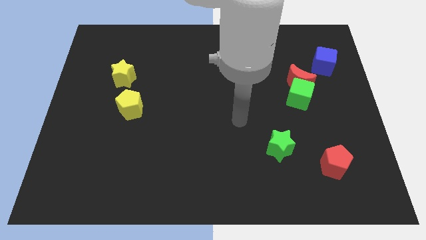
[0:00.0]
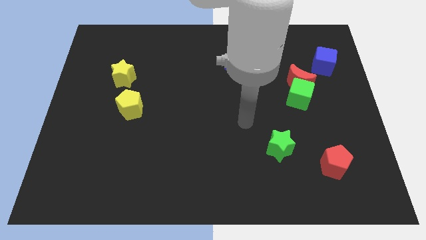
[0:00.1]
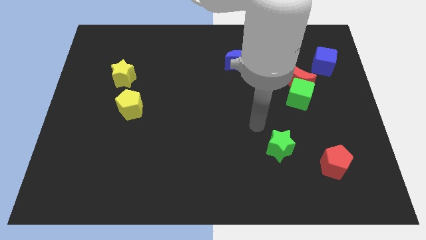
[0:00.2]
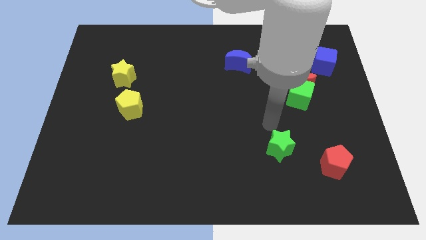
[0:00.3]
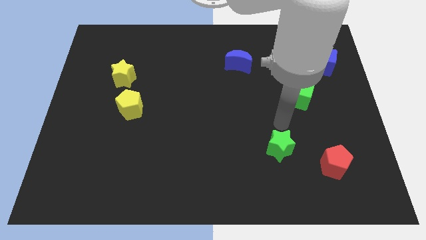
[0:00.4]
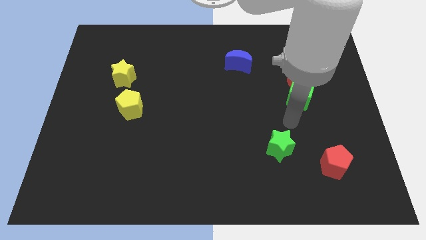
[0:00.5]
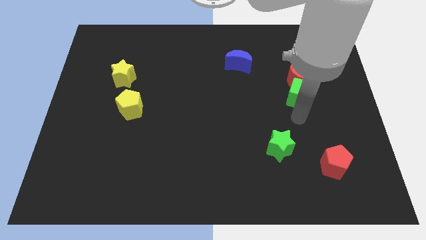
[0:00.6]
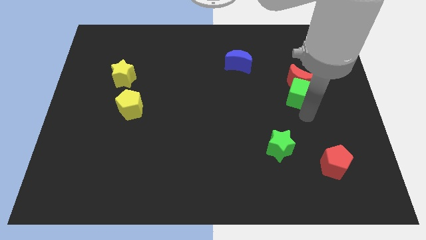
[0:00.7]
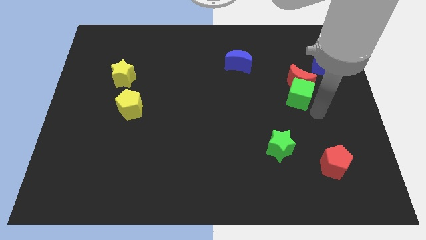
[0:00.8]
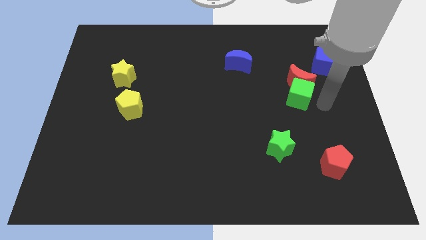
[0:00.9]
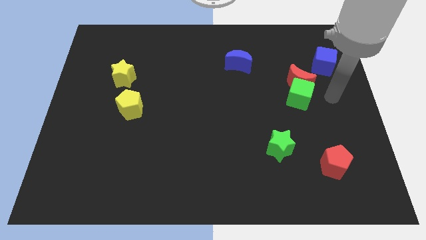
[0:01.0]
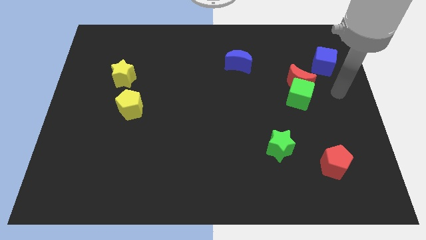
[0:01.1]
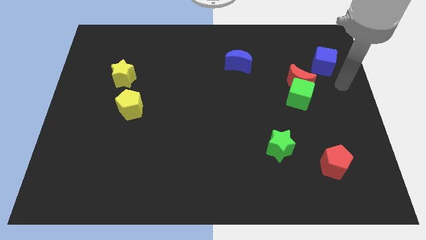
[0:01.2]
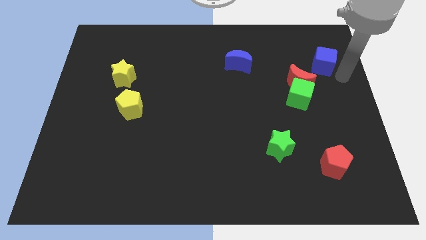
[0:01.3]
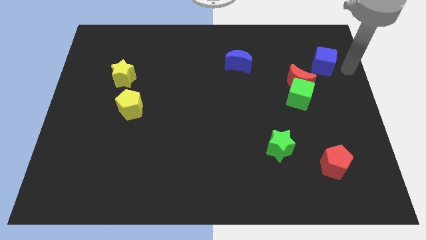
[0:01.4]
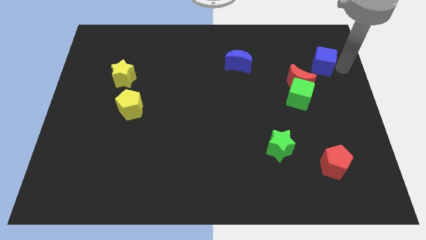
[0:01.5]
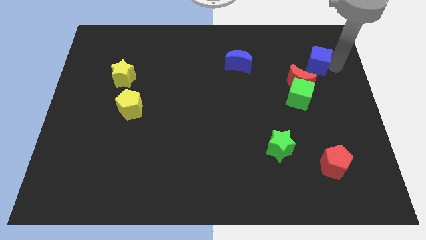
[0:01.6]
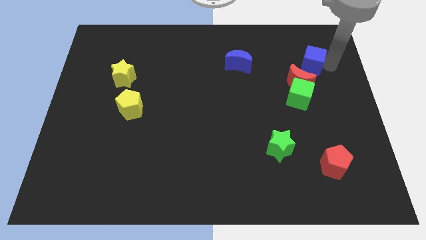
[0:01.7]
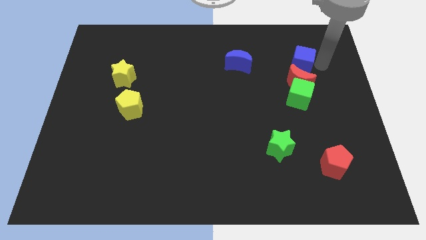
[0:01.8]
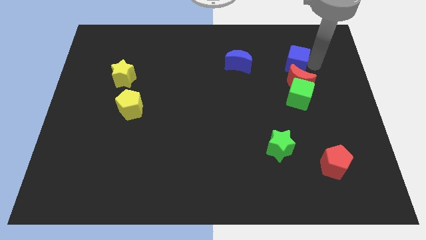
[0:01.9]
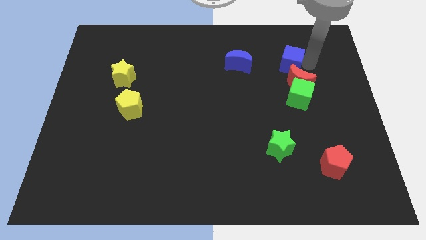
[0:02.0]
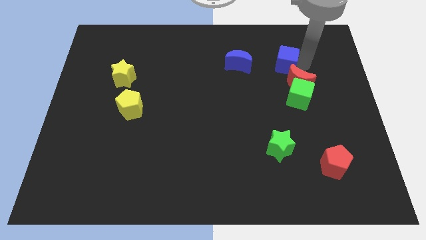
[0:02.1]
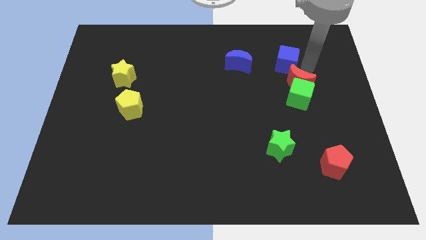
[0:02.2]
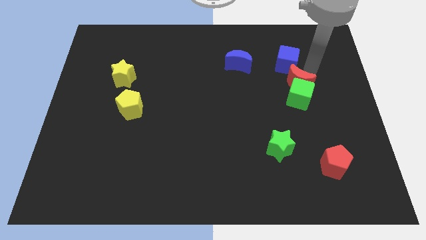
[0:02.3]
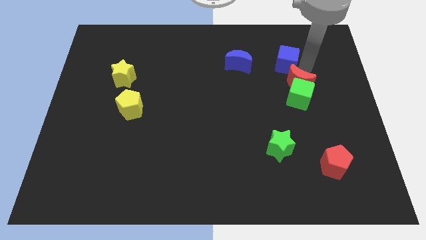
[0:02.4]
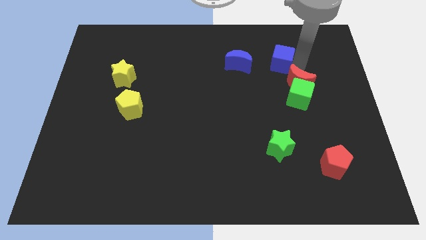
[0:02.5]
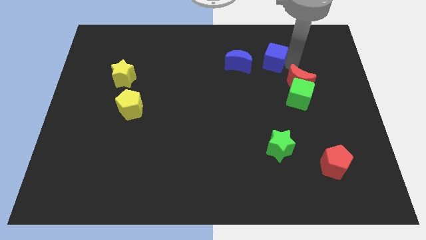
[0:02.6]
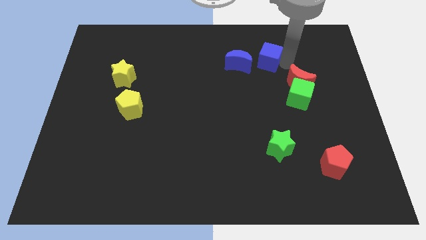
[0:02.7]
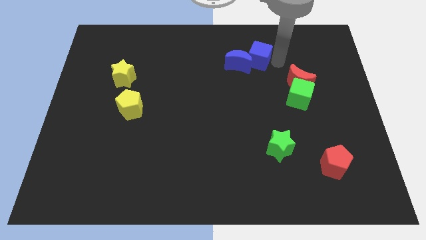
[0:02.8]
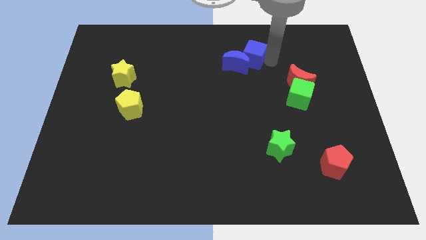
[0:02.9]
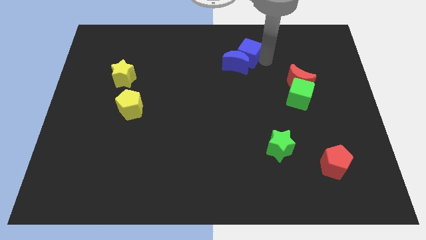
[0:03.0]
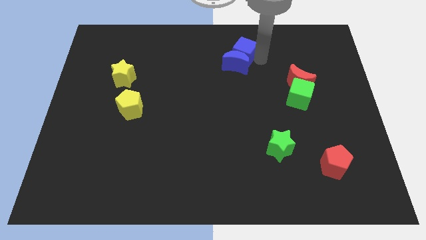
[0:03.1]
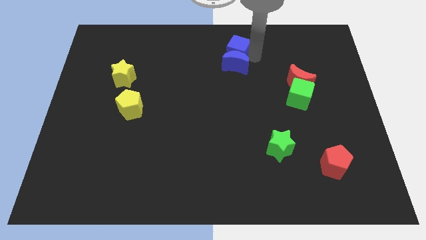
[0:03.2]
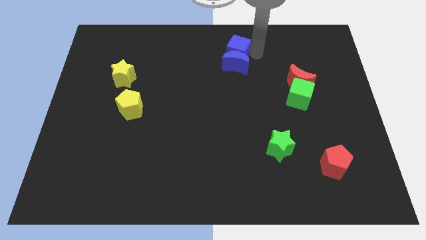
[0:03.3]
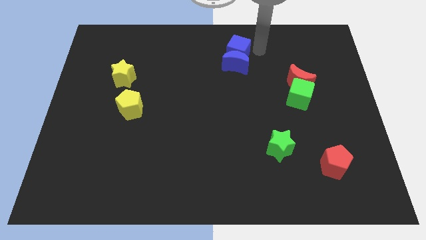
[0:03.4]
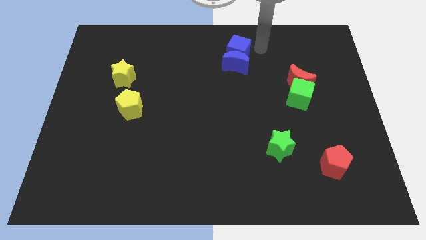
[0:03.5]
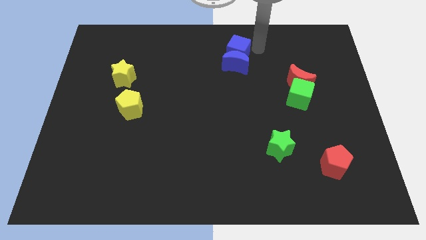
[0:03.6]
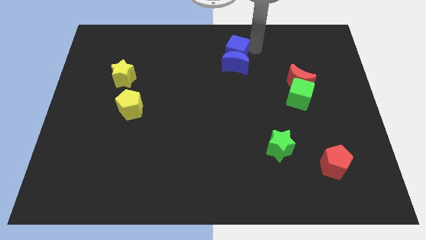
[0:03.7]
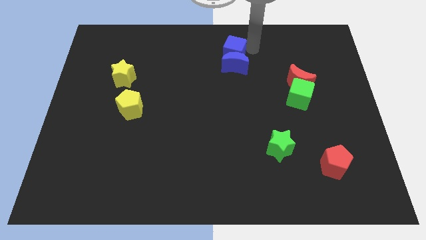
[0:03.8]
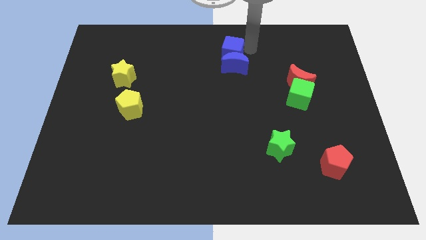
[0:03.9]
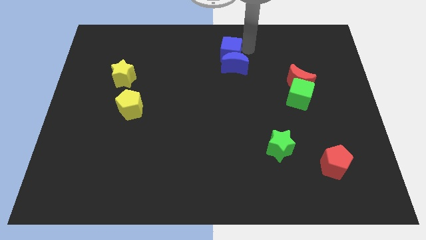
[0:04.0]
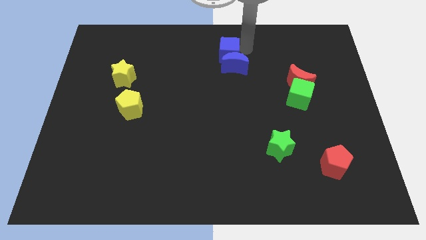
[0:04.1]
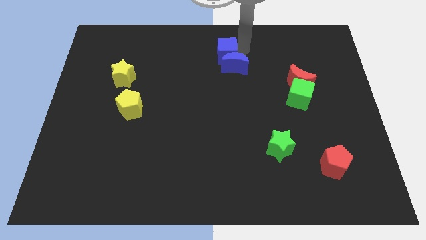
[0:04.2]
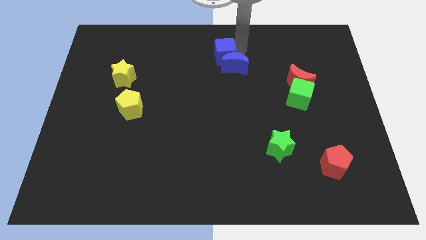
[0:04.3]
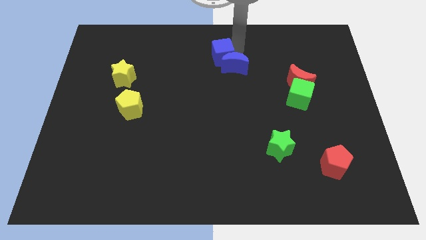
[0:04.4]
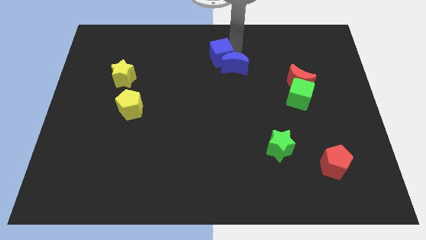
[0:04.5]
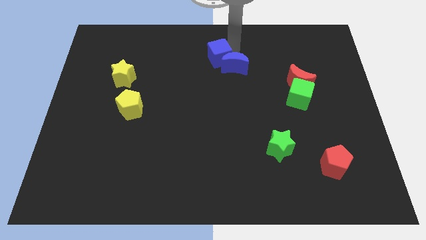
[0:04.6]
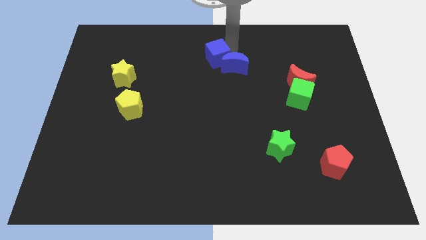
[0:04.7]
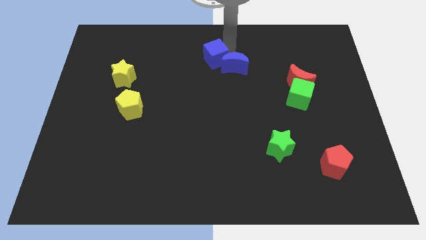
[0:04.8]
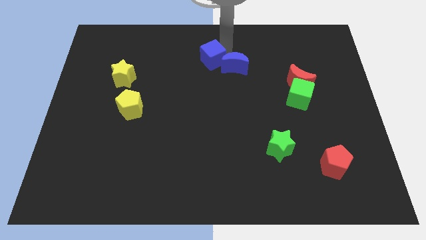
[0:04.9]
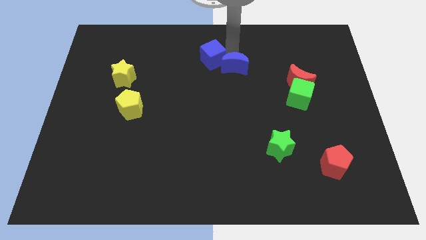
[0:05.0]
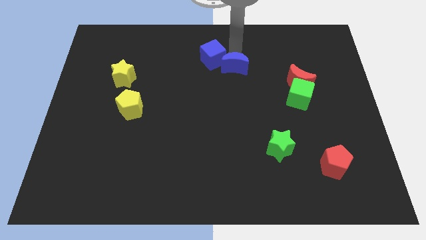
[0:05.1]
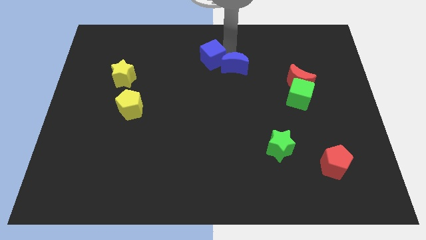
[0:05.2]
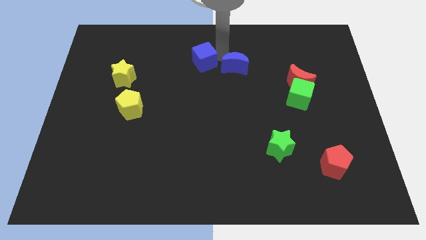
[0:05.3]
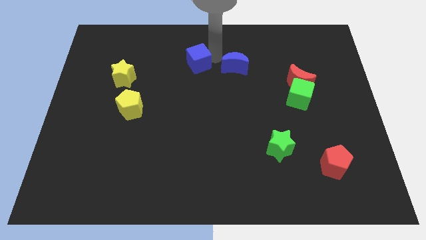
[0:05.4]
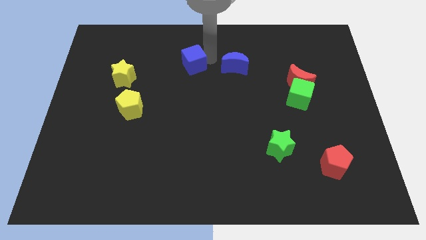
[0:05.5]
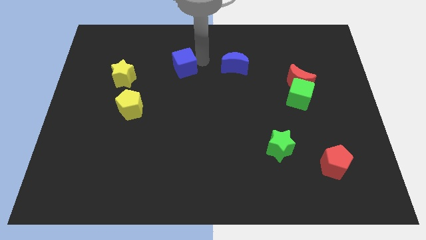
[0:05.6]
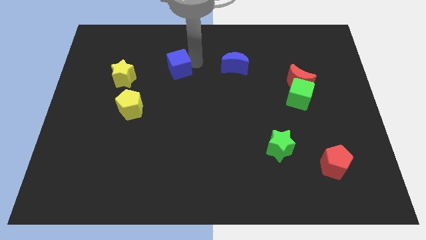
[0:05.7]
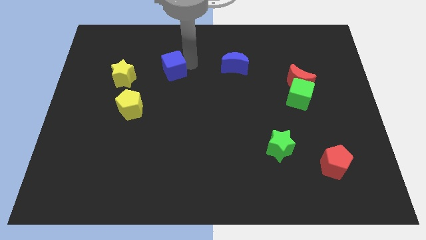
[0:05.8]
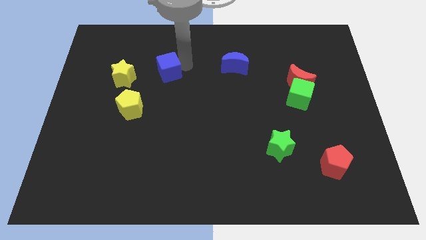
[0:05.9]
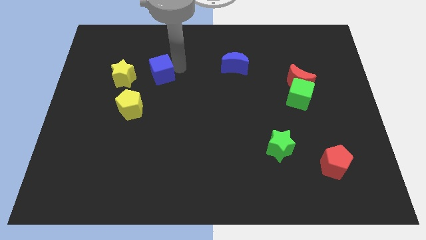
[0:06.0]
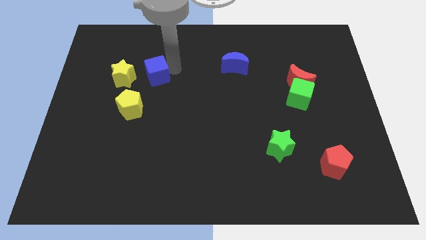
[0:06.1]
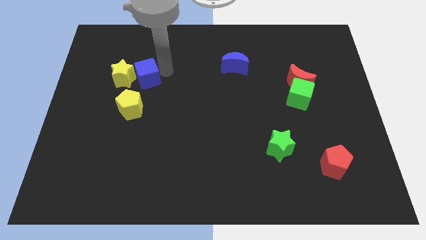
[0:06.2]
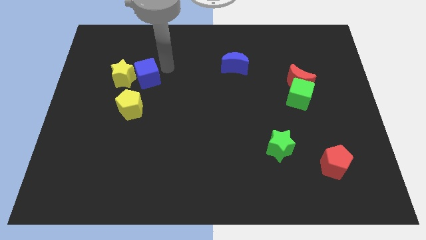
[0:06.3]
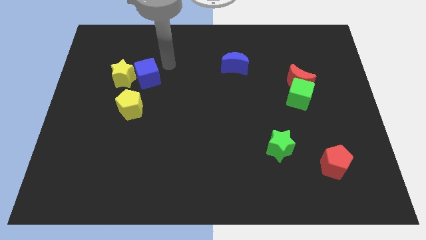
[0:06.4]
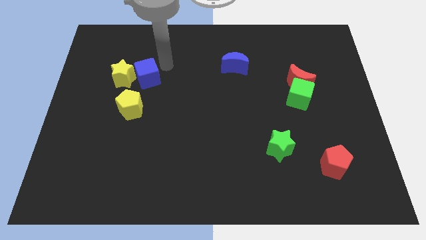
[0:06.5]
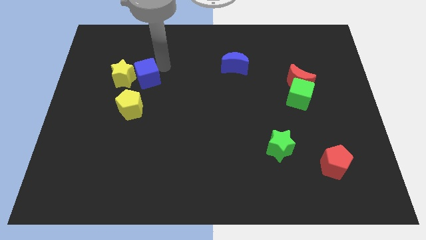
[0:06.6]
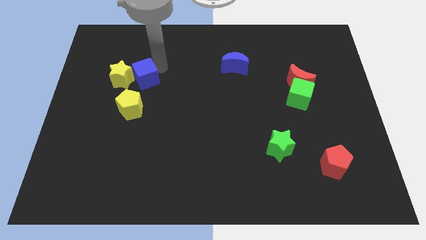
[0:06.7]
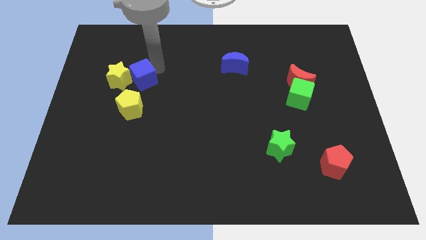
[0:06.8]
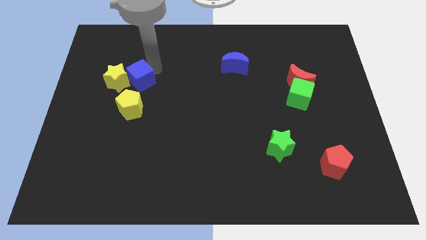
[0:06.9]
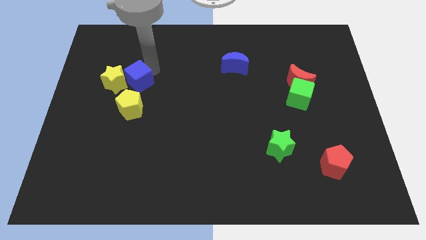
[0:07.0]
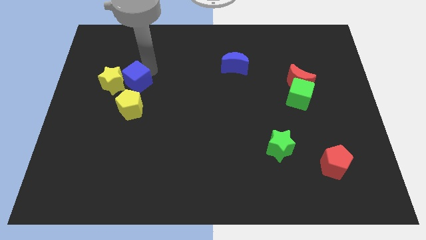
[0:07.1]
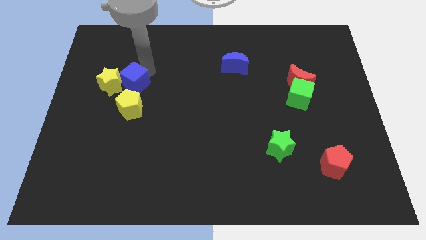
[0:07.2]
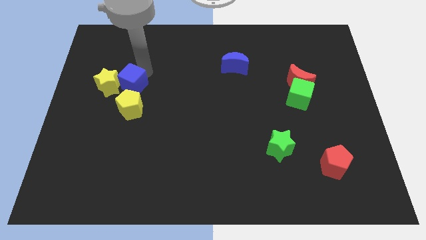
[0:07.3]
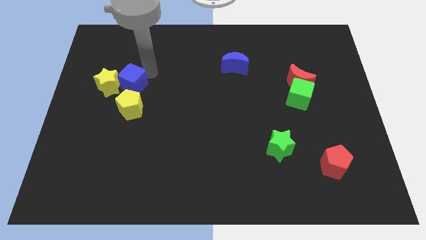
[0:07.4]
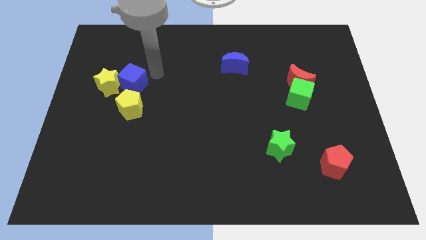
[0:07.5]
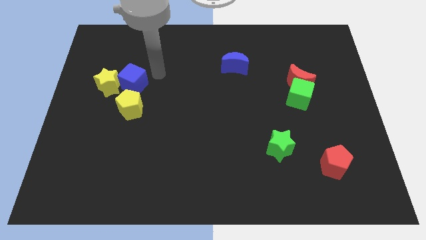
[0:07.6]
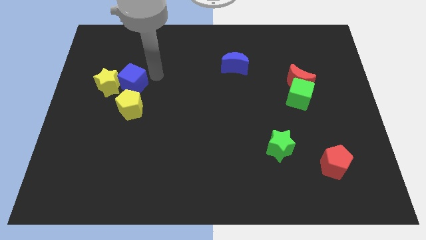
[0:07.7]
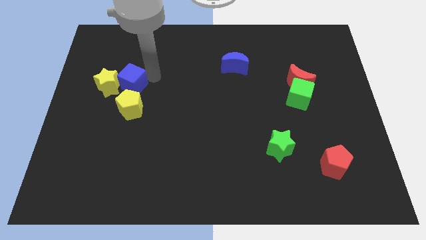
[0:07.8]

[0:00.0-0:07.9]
move the blue cube to the top left of the yellow pentagon
